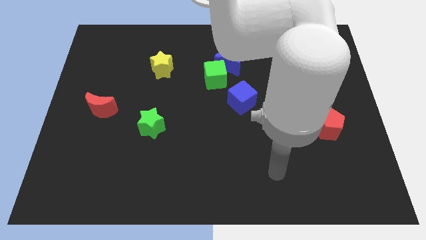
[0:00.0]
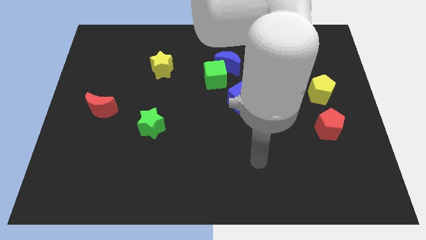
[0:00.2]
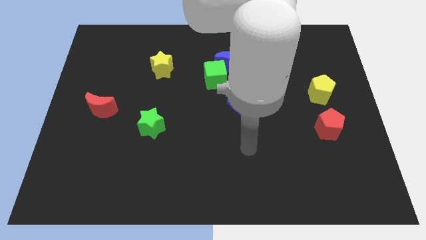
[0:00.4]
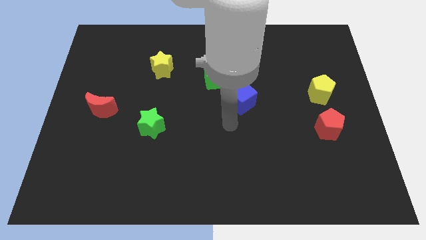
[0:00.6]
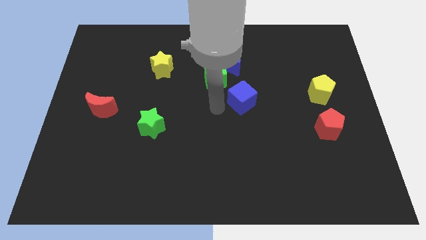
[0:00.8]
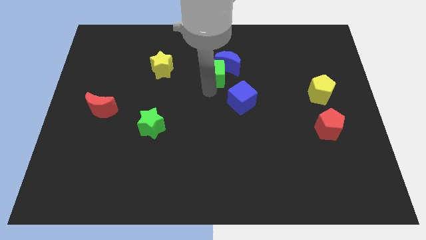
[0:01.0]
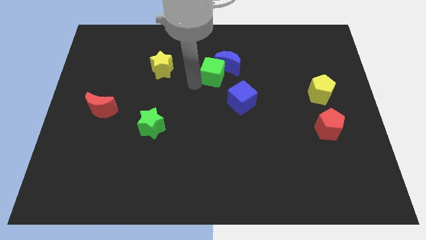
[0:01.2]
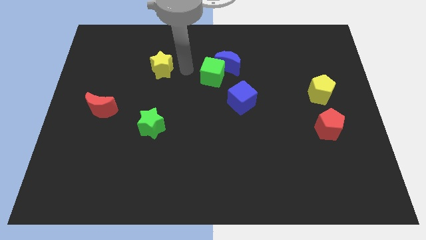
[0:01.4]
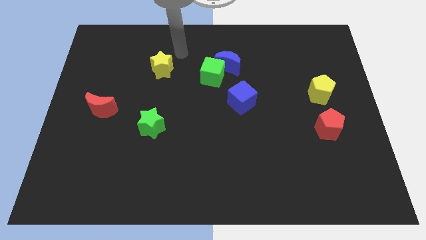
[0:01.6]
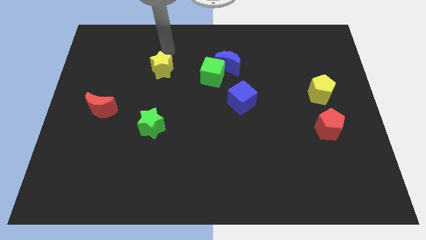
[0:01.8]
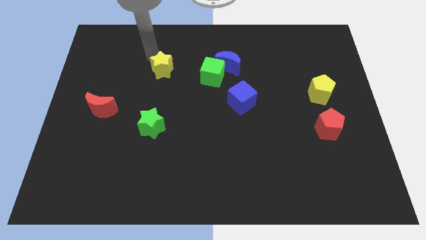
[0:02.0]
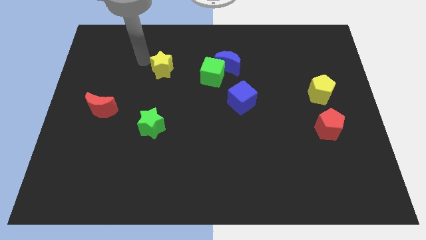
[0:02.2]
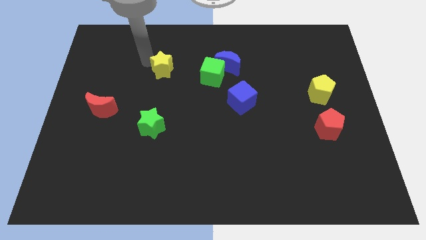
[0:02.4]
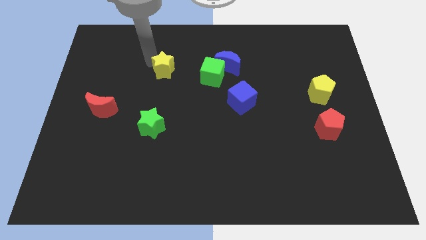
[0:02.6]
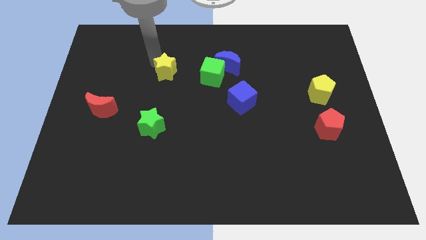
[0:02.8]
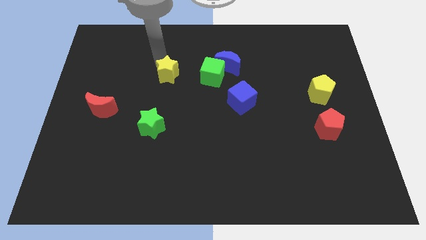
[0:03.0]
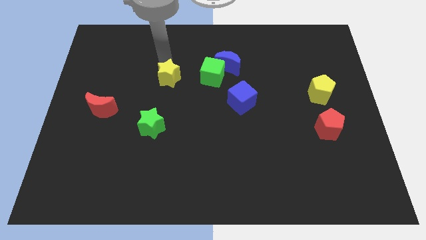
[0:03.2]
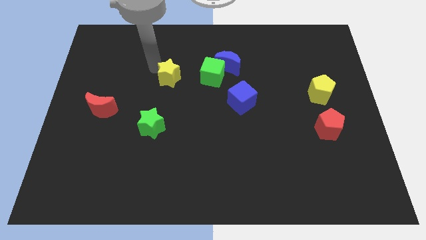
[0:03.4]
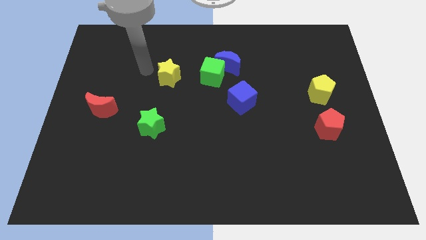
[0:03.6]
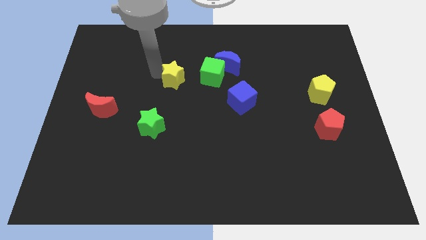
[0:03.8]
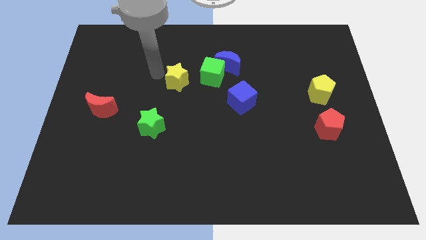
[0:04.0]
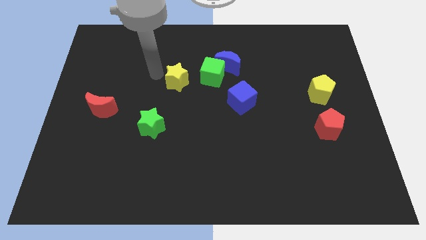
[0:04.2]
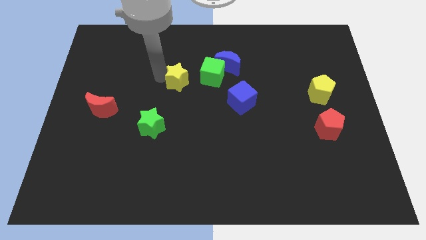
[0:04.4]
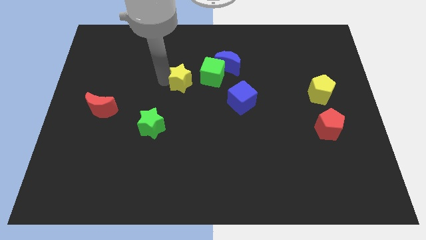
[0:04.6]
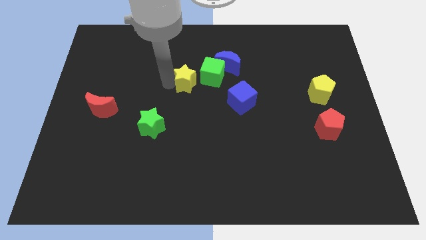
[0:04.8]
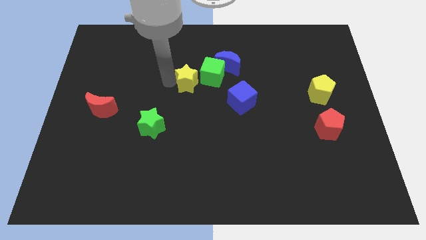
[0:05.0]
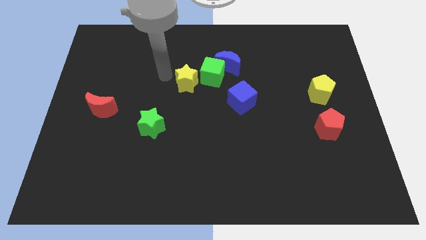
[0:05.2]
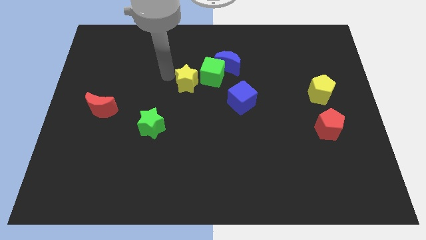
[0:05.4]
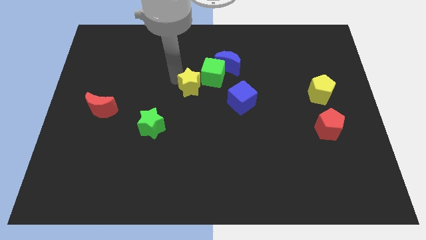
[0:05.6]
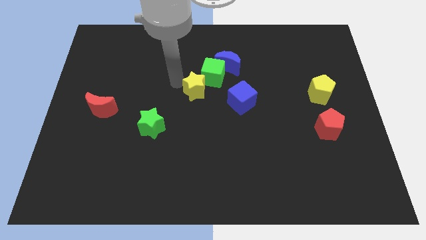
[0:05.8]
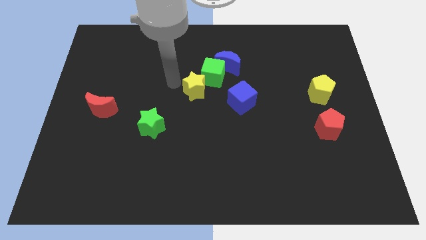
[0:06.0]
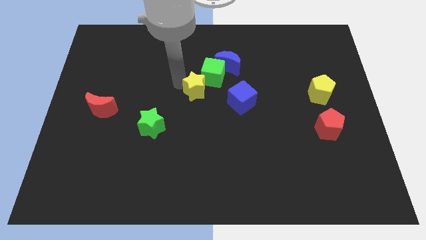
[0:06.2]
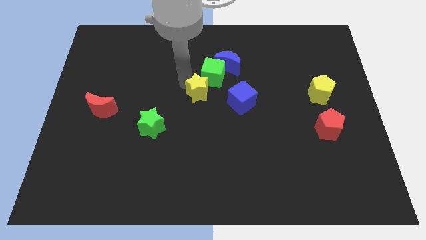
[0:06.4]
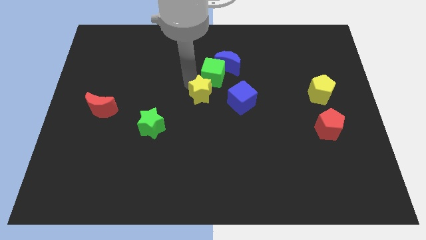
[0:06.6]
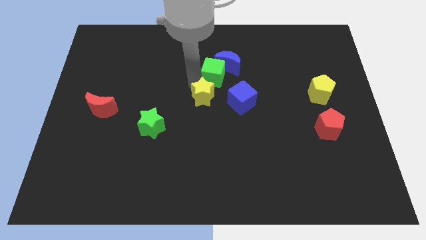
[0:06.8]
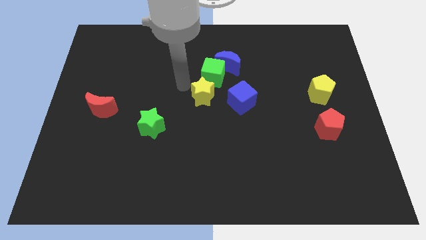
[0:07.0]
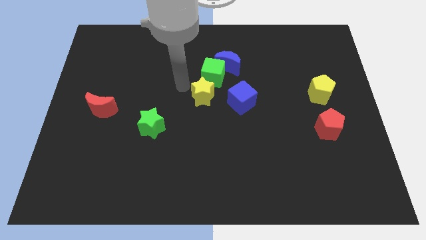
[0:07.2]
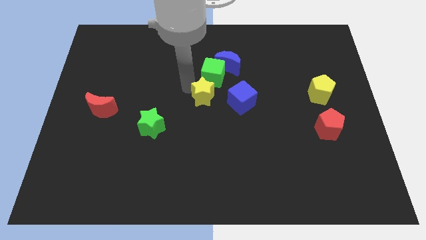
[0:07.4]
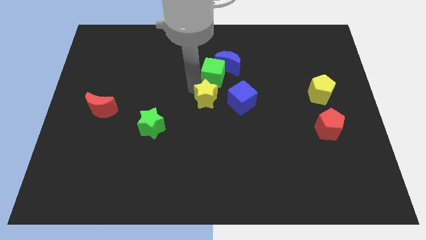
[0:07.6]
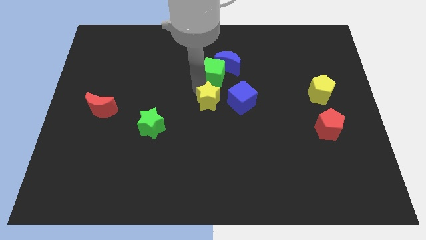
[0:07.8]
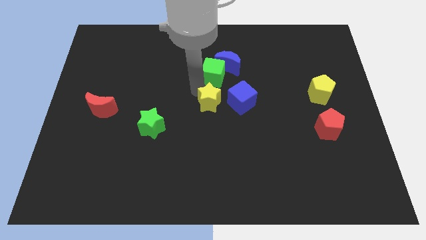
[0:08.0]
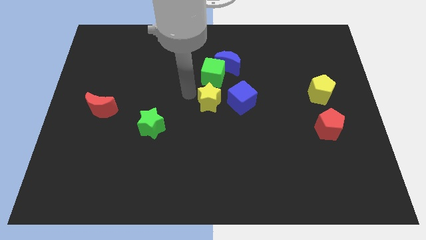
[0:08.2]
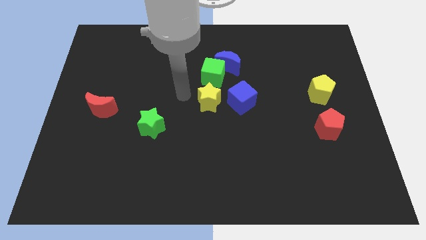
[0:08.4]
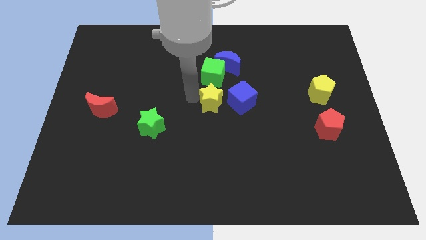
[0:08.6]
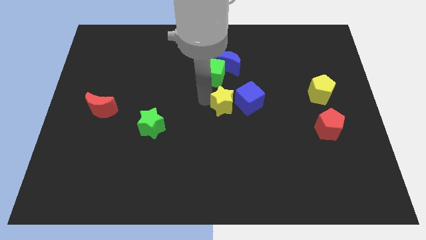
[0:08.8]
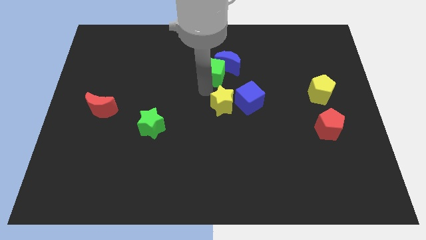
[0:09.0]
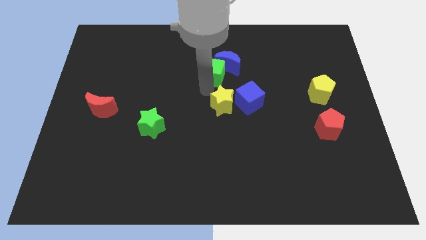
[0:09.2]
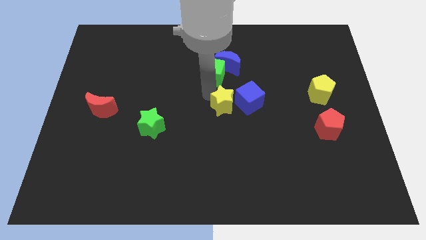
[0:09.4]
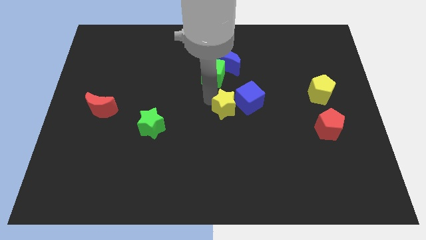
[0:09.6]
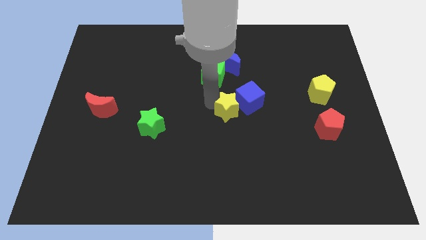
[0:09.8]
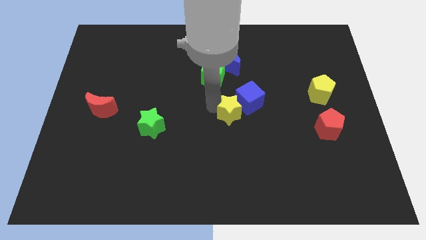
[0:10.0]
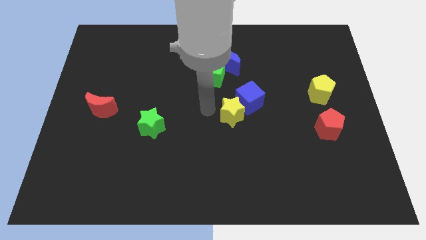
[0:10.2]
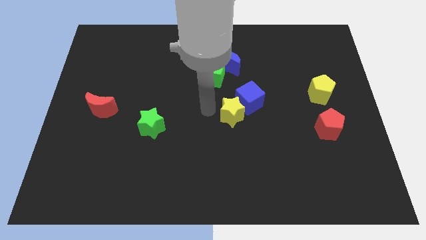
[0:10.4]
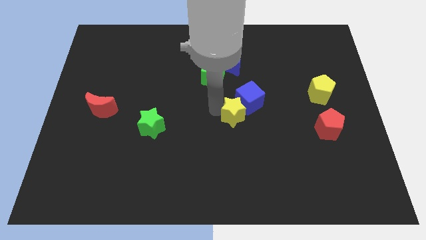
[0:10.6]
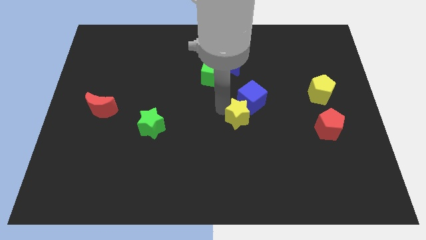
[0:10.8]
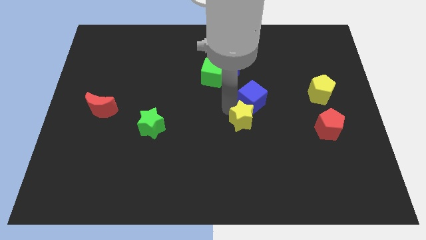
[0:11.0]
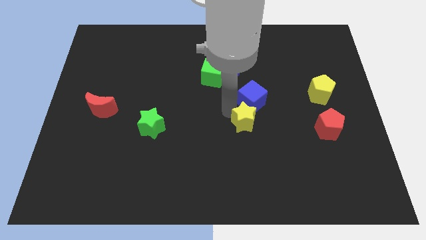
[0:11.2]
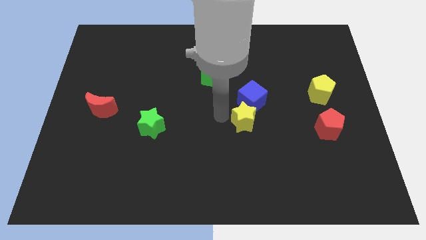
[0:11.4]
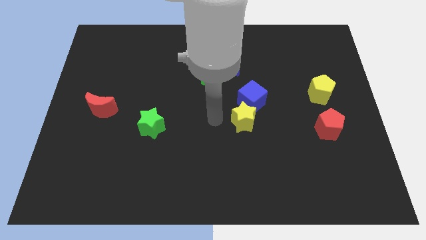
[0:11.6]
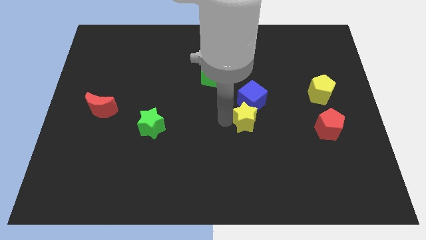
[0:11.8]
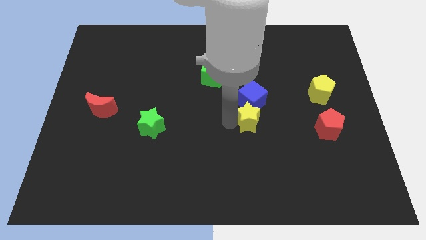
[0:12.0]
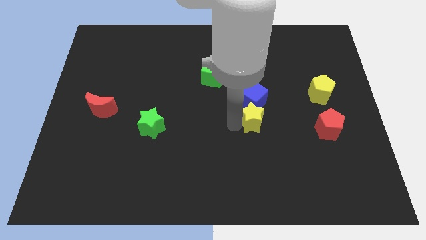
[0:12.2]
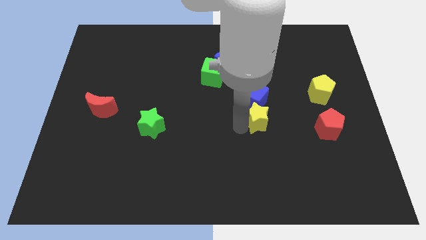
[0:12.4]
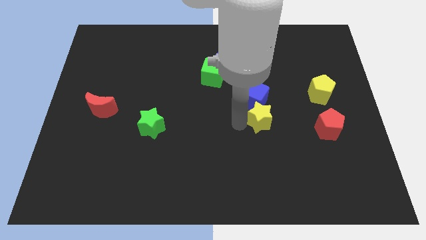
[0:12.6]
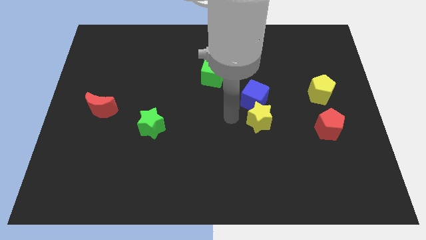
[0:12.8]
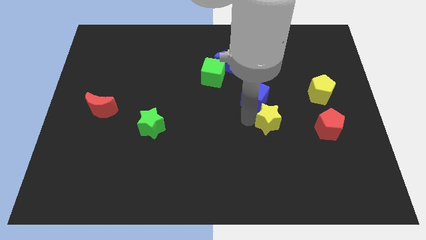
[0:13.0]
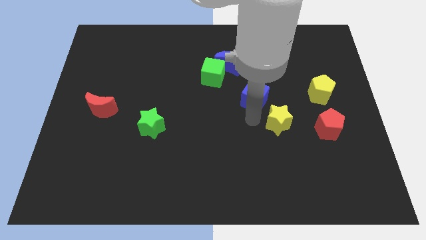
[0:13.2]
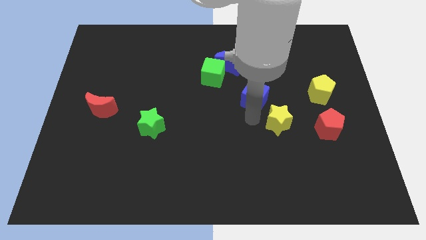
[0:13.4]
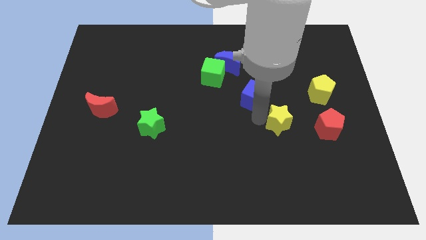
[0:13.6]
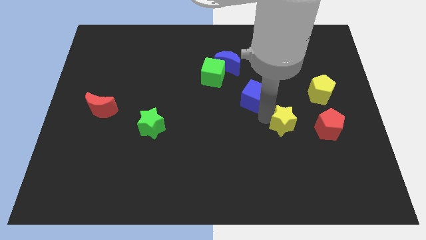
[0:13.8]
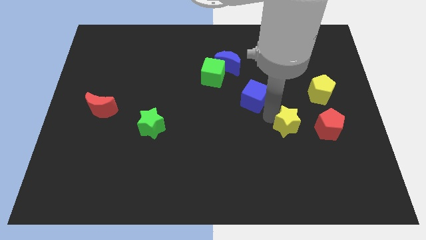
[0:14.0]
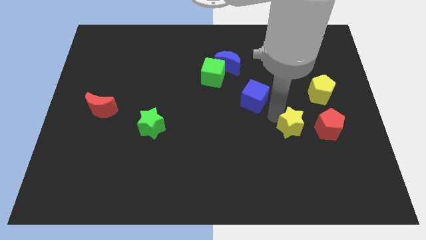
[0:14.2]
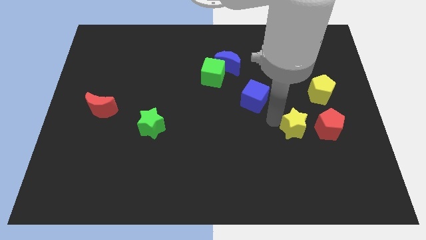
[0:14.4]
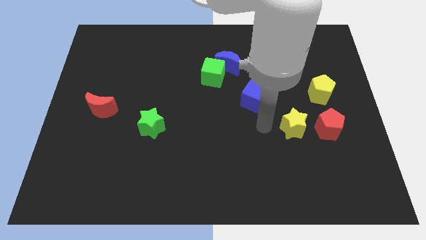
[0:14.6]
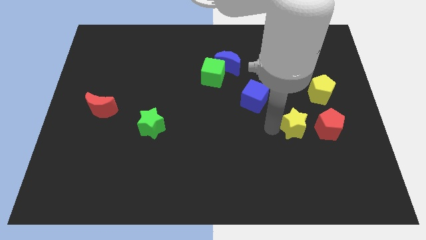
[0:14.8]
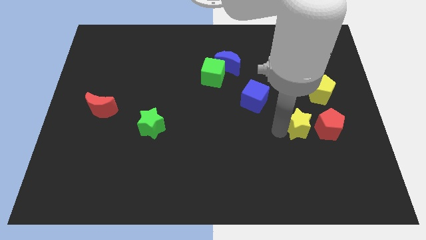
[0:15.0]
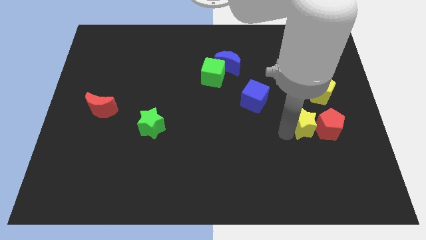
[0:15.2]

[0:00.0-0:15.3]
slide the yellow star towards the red pentagon
